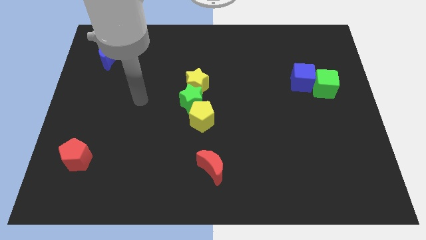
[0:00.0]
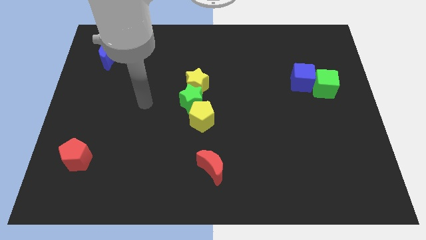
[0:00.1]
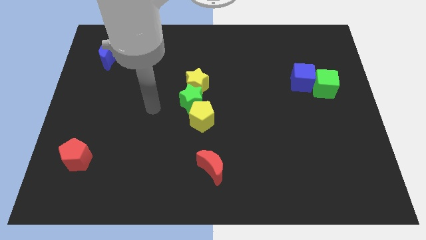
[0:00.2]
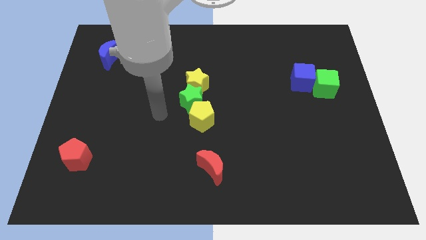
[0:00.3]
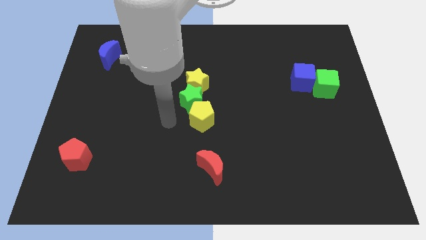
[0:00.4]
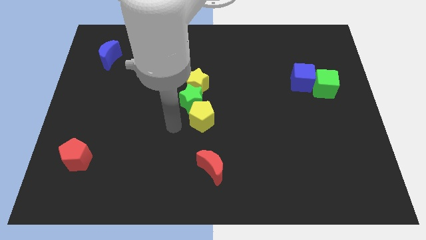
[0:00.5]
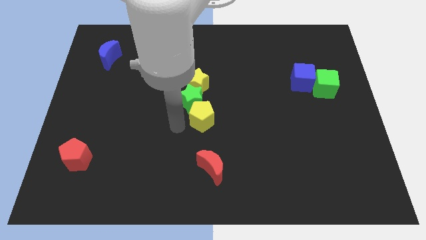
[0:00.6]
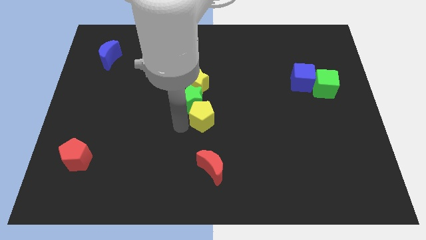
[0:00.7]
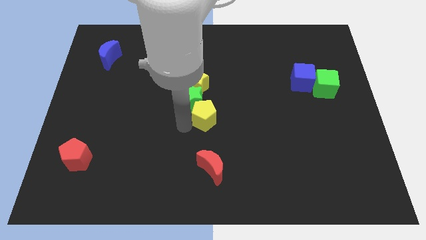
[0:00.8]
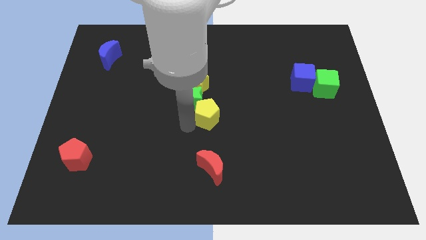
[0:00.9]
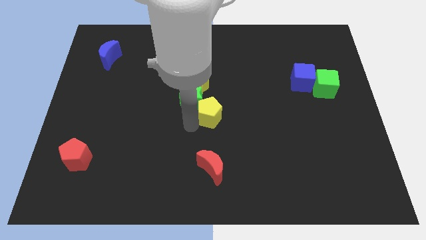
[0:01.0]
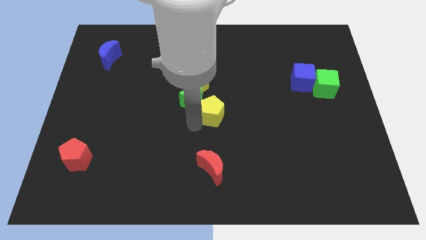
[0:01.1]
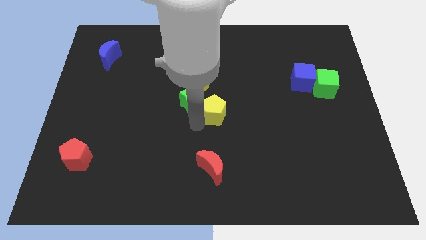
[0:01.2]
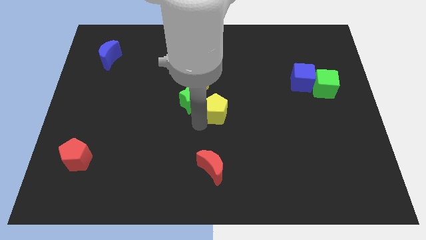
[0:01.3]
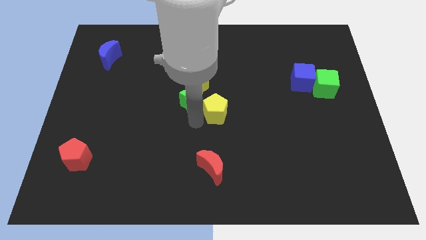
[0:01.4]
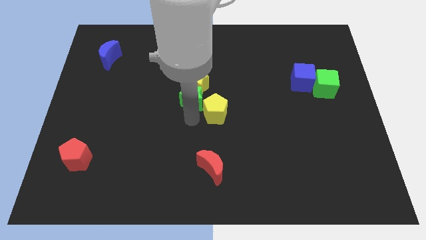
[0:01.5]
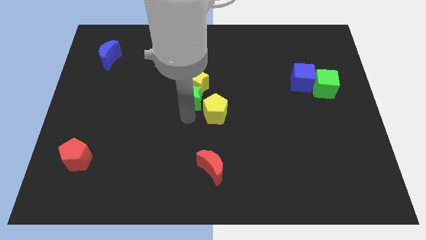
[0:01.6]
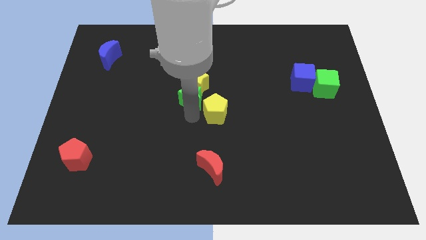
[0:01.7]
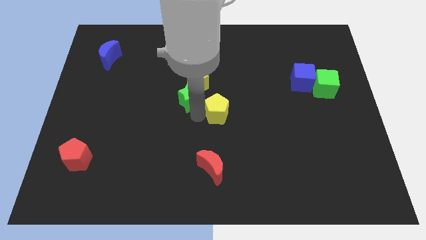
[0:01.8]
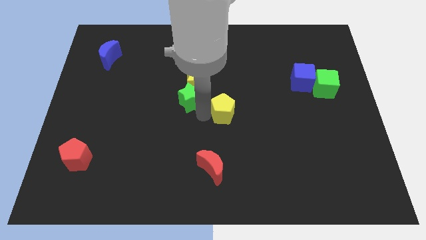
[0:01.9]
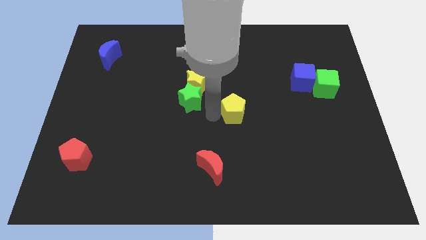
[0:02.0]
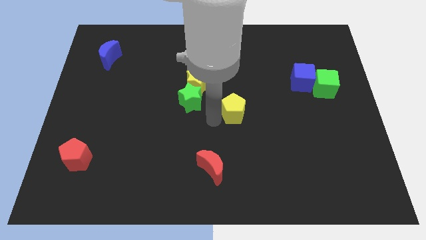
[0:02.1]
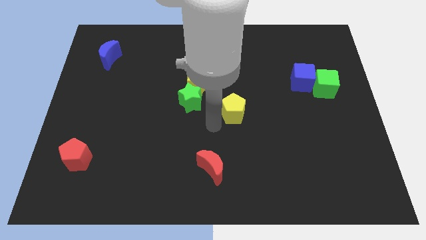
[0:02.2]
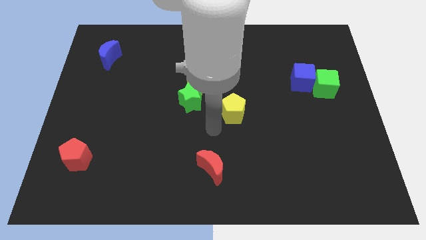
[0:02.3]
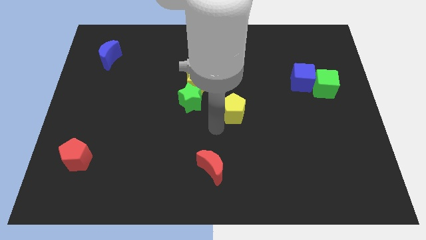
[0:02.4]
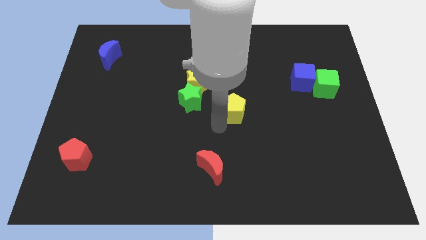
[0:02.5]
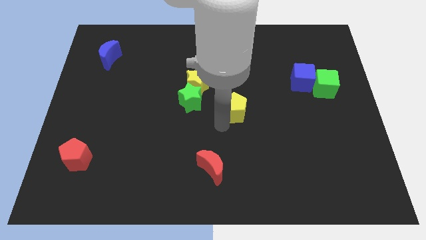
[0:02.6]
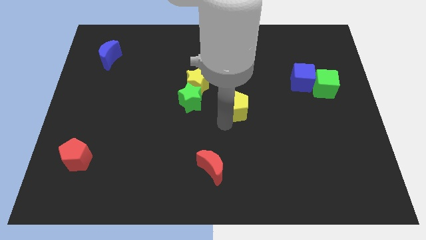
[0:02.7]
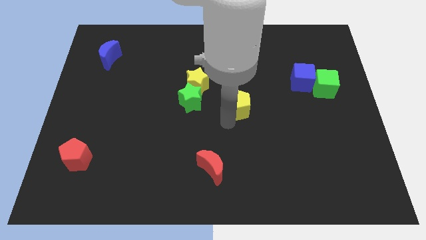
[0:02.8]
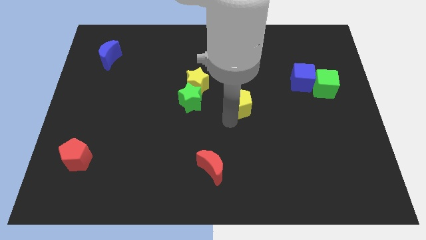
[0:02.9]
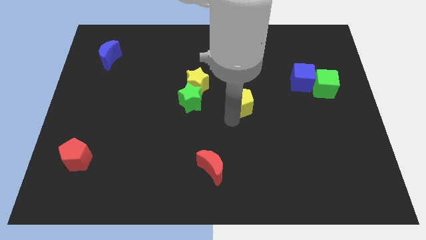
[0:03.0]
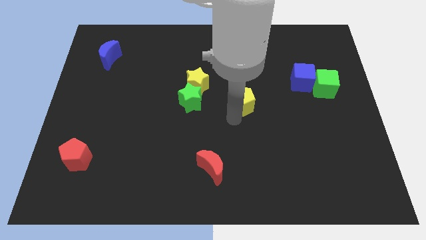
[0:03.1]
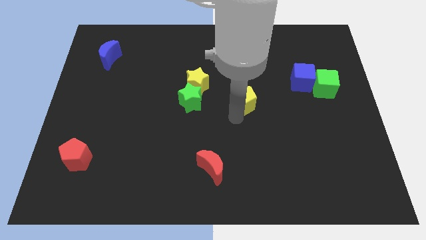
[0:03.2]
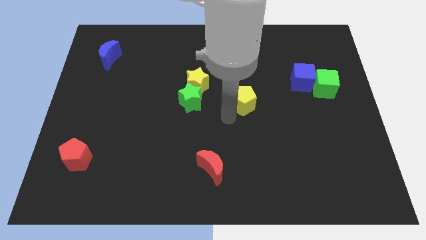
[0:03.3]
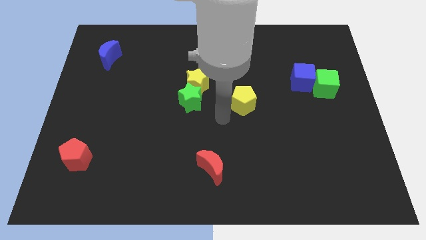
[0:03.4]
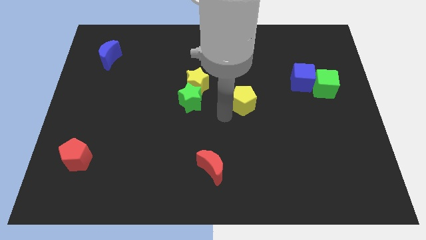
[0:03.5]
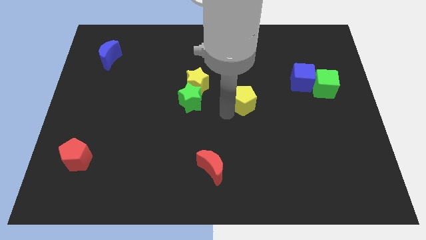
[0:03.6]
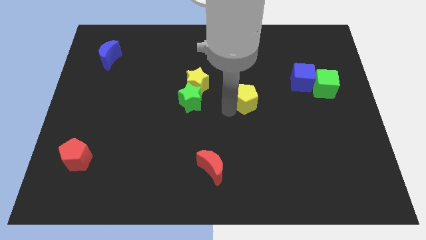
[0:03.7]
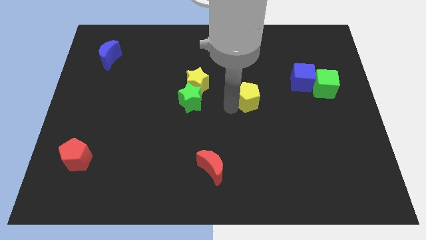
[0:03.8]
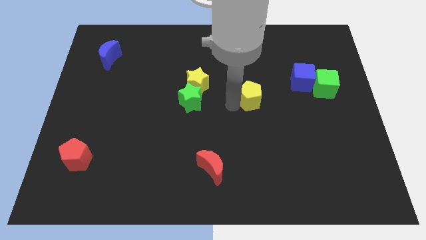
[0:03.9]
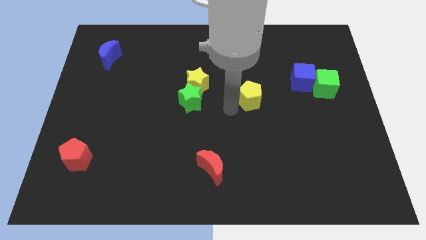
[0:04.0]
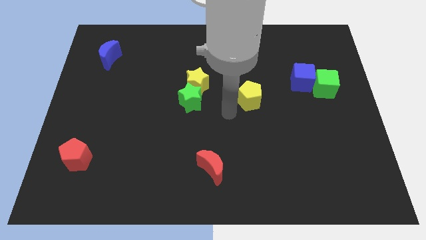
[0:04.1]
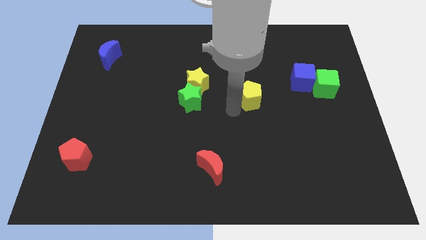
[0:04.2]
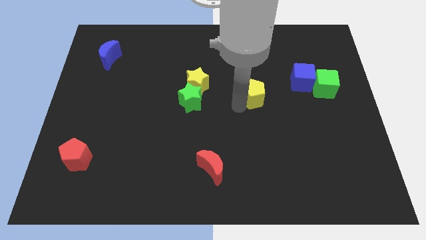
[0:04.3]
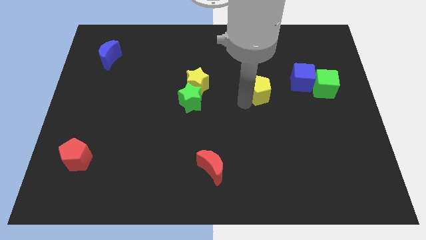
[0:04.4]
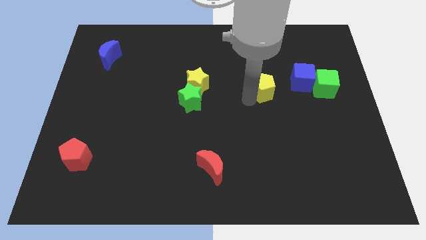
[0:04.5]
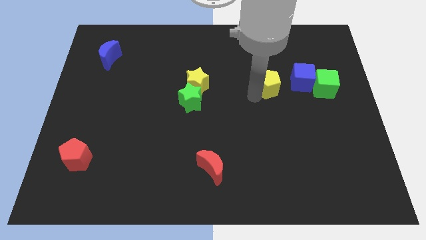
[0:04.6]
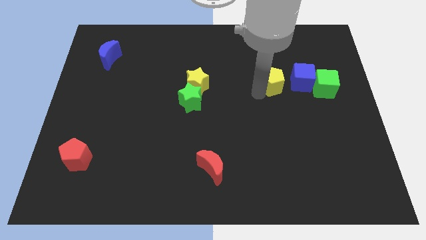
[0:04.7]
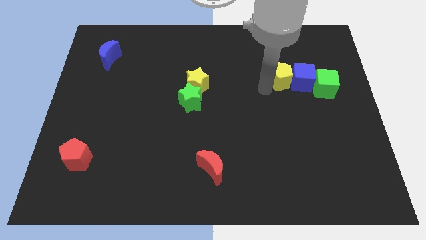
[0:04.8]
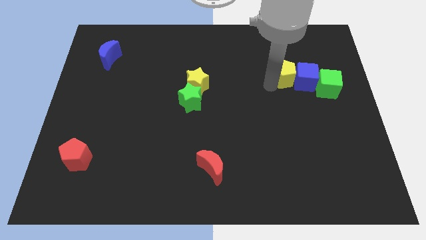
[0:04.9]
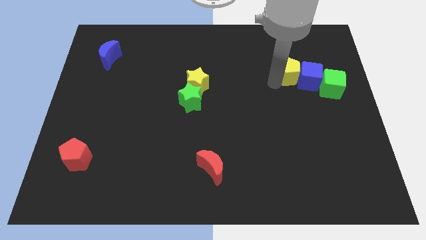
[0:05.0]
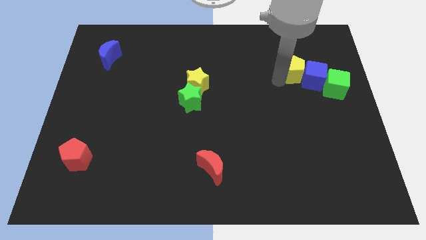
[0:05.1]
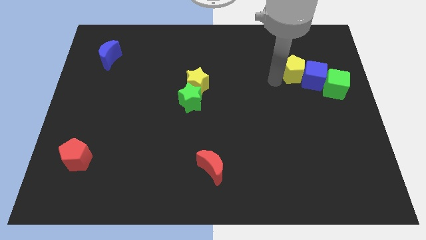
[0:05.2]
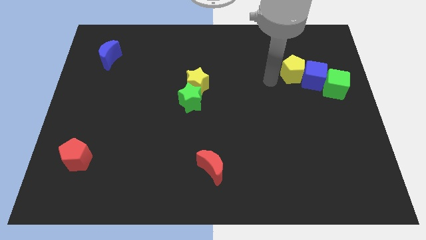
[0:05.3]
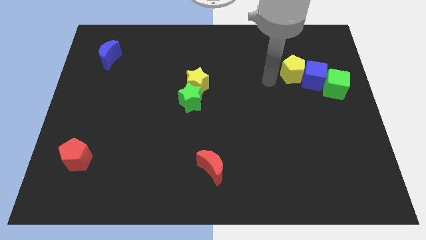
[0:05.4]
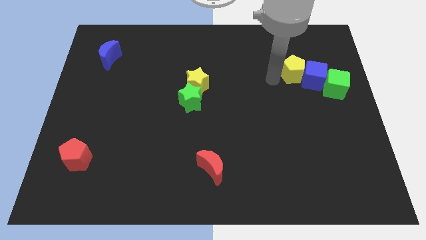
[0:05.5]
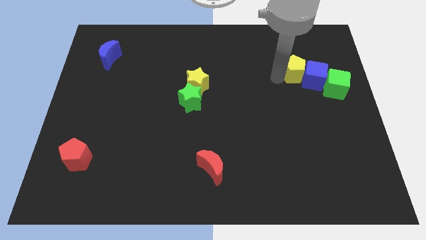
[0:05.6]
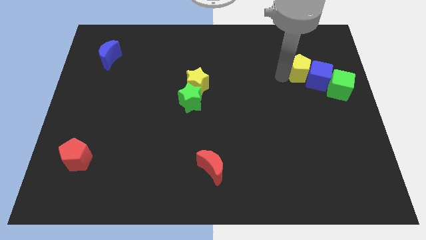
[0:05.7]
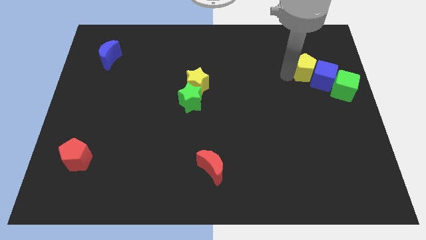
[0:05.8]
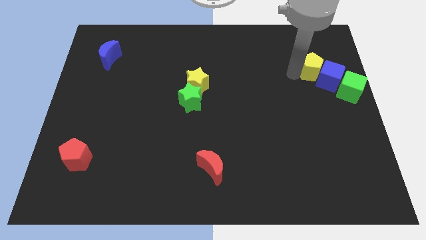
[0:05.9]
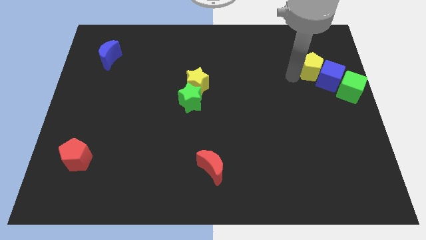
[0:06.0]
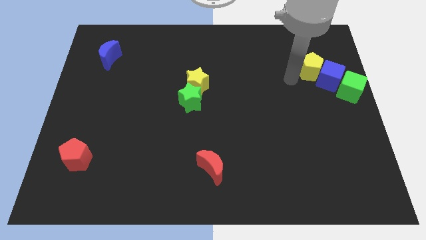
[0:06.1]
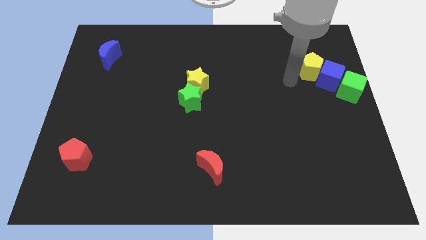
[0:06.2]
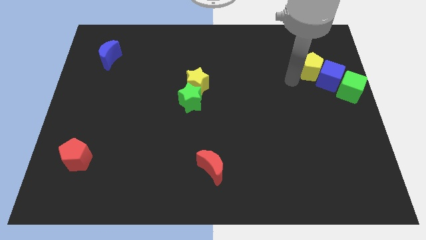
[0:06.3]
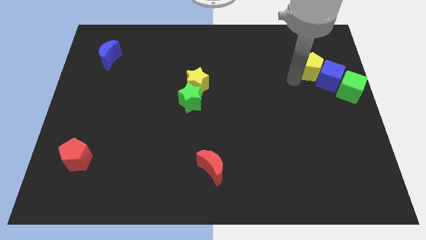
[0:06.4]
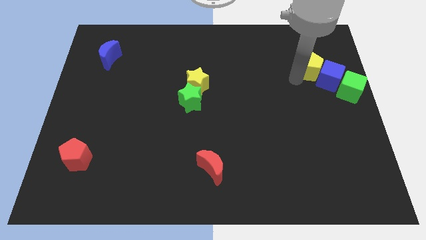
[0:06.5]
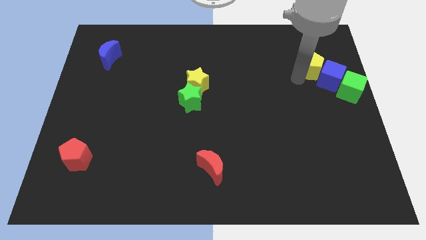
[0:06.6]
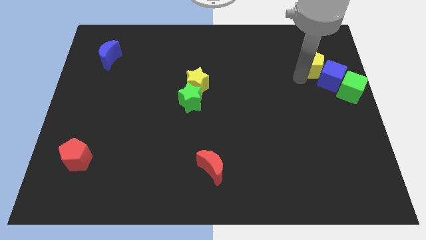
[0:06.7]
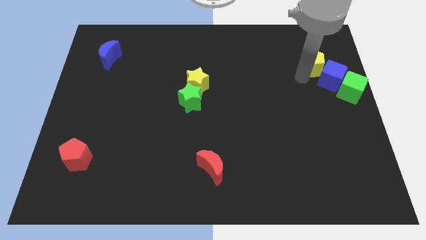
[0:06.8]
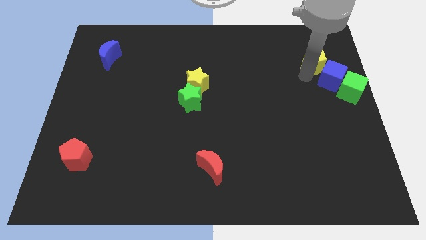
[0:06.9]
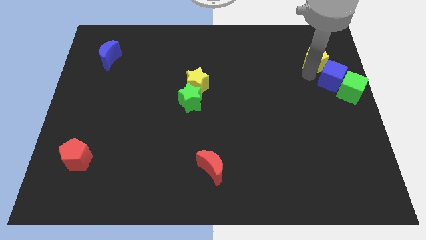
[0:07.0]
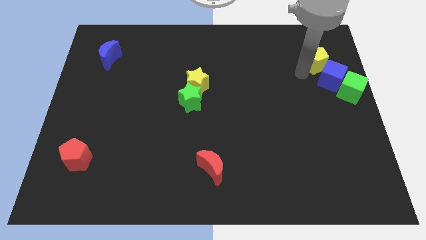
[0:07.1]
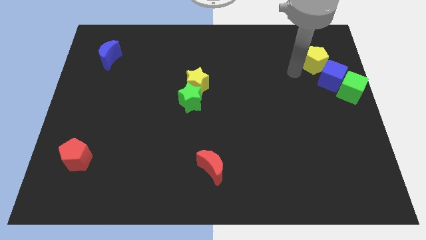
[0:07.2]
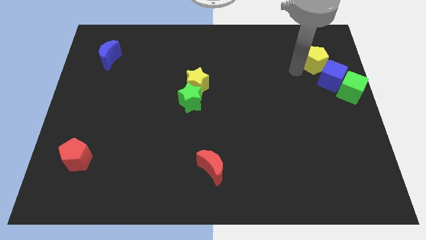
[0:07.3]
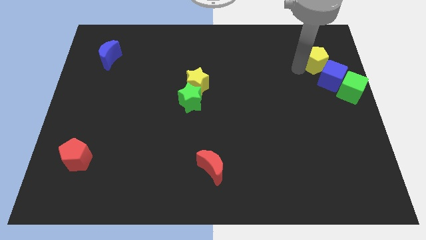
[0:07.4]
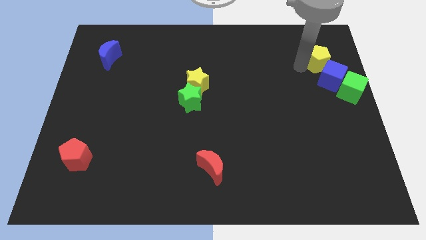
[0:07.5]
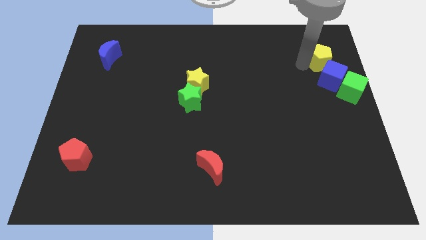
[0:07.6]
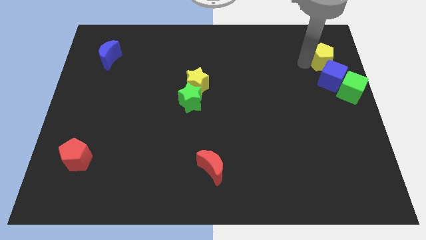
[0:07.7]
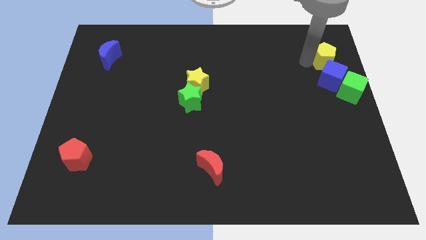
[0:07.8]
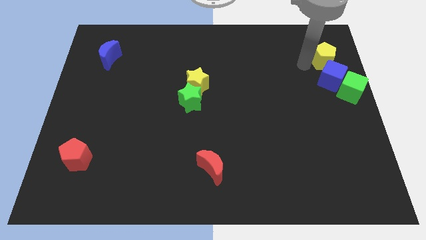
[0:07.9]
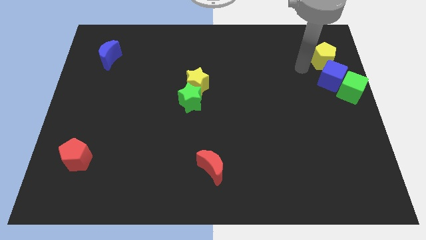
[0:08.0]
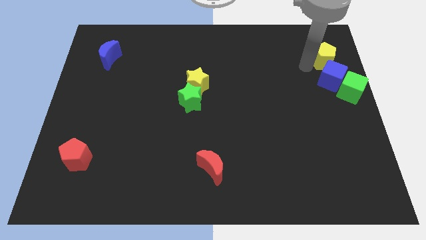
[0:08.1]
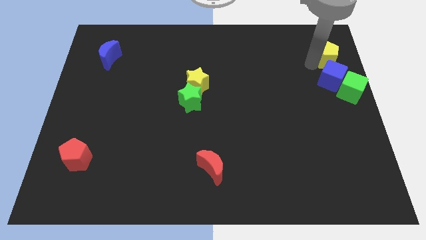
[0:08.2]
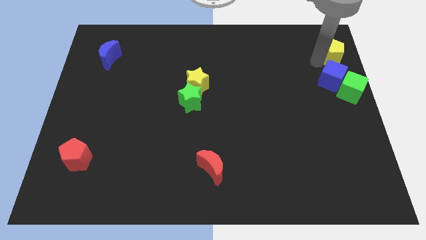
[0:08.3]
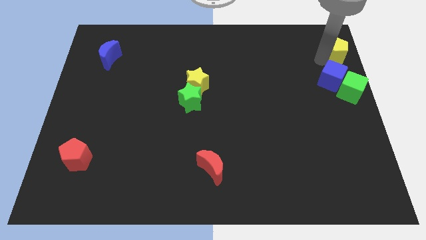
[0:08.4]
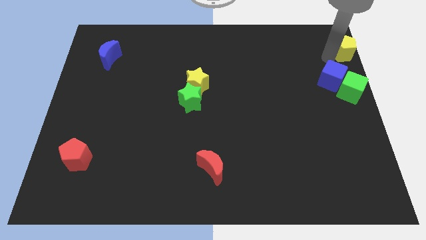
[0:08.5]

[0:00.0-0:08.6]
move the yellow pentagon to the top right
